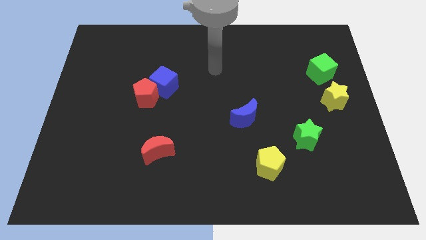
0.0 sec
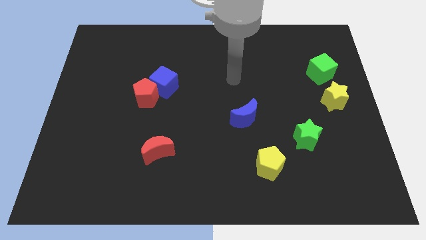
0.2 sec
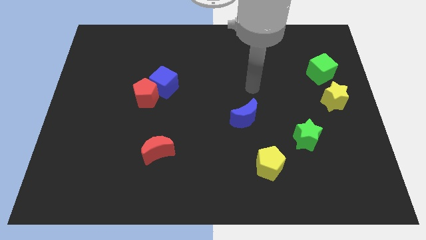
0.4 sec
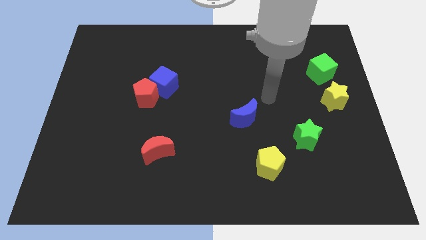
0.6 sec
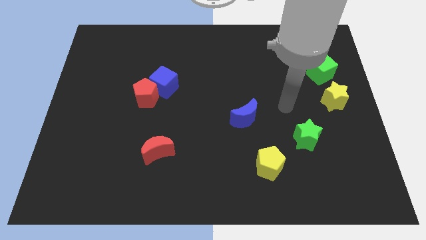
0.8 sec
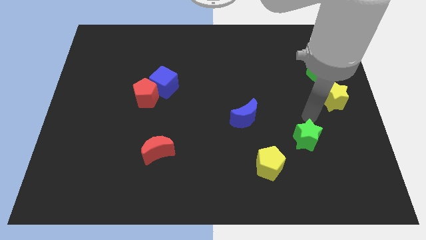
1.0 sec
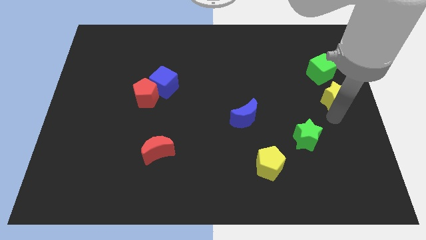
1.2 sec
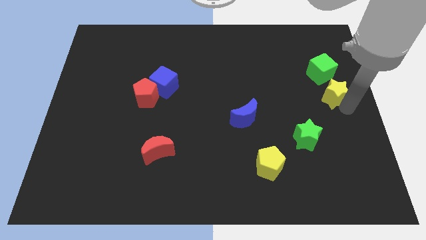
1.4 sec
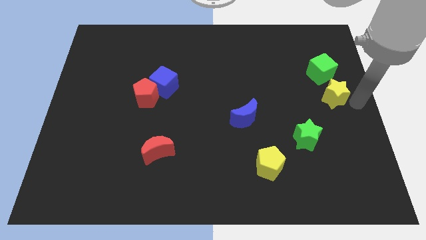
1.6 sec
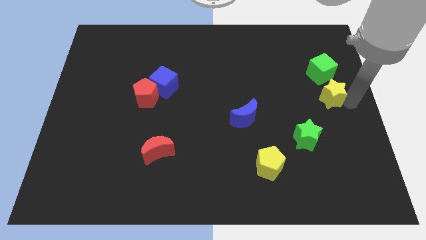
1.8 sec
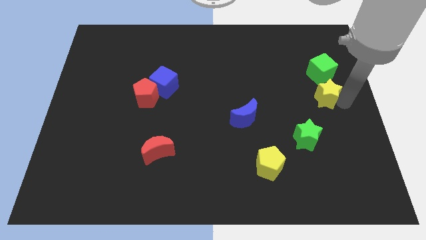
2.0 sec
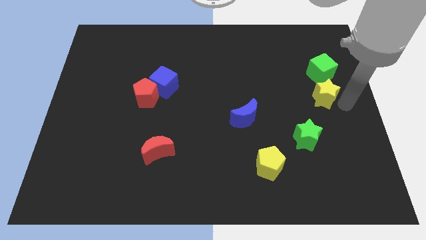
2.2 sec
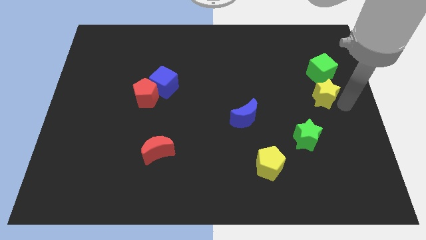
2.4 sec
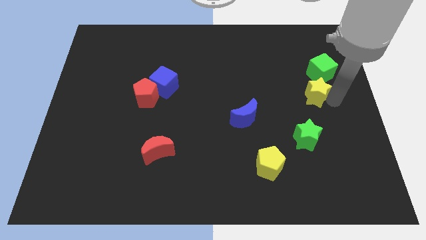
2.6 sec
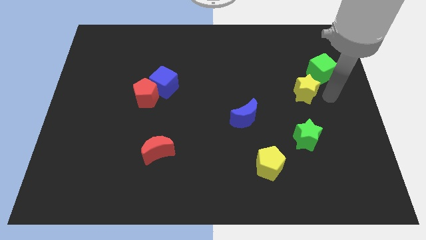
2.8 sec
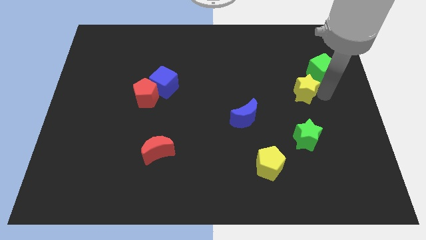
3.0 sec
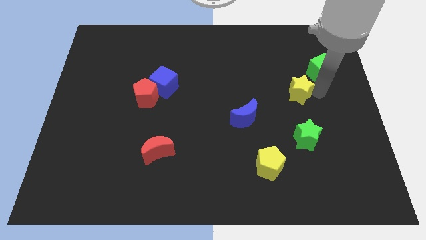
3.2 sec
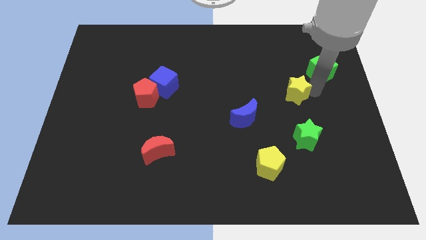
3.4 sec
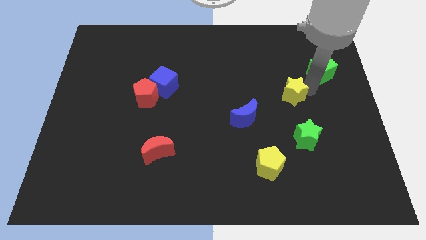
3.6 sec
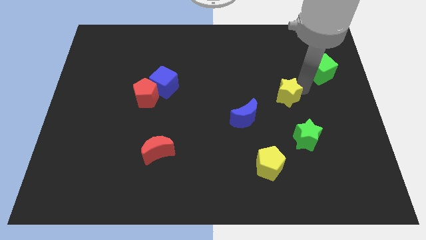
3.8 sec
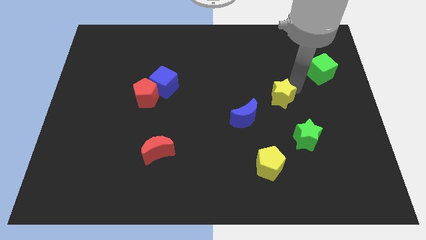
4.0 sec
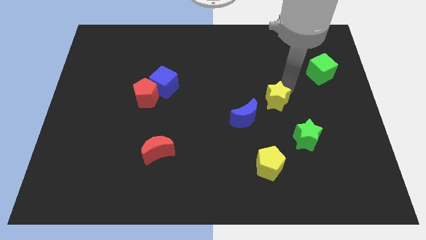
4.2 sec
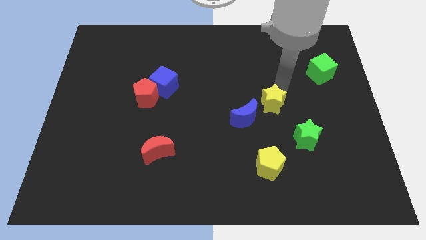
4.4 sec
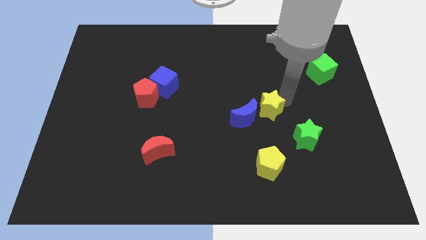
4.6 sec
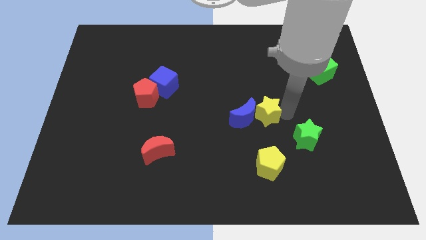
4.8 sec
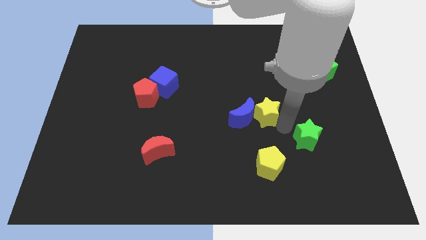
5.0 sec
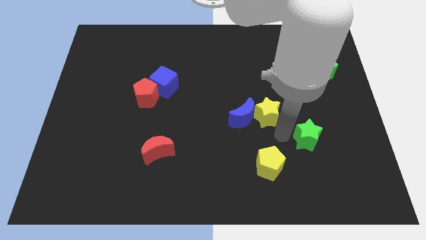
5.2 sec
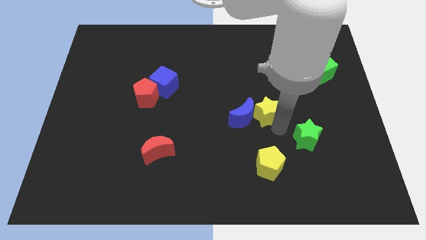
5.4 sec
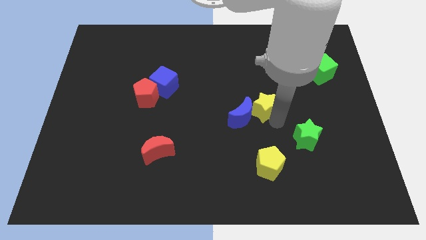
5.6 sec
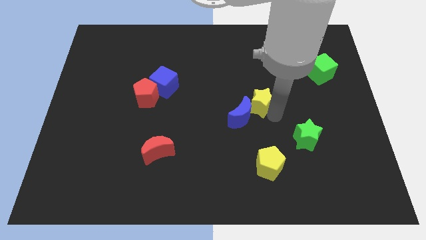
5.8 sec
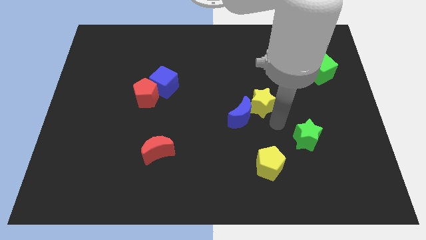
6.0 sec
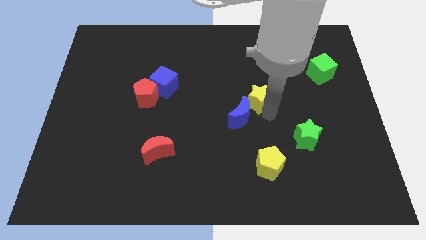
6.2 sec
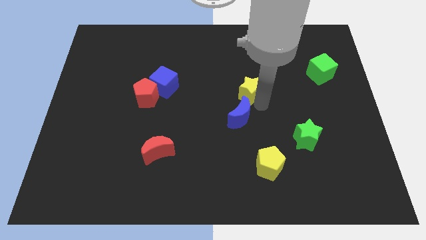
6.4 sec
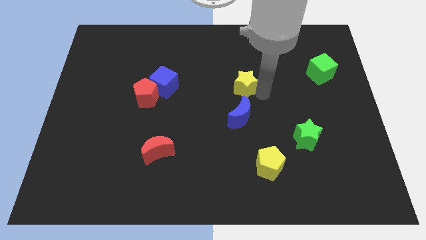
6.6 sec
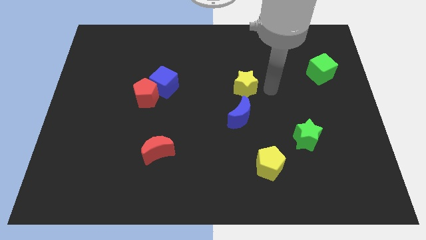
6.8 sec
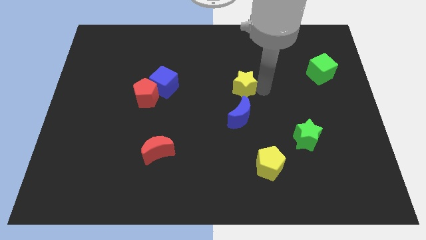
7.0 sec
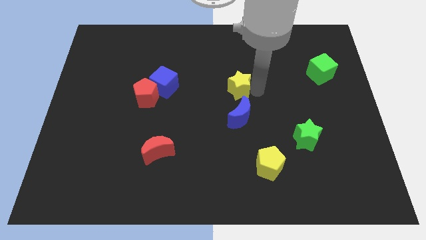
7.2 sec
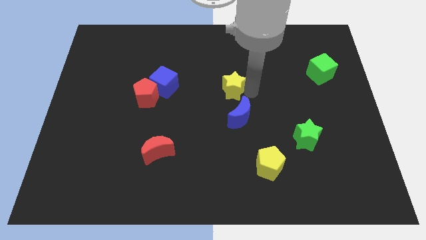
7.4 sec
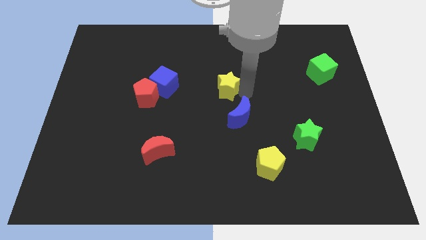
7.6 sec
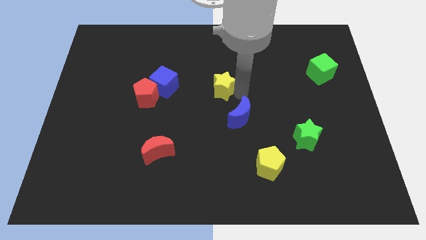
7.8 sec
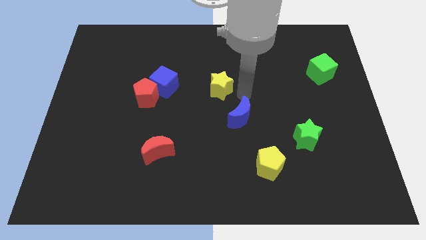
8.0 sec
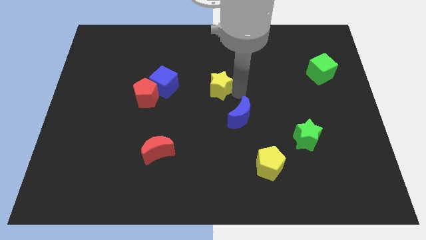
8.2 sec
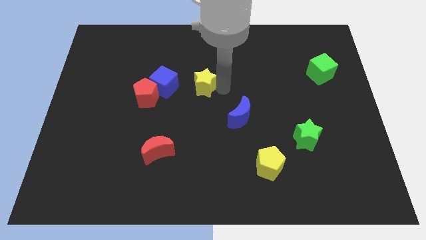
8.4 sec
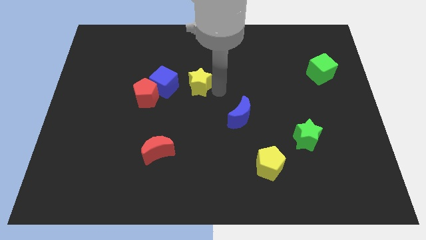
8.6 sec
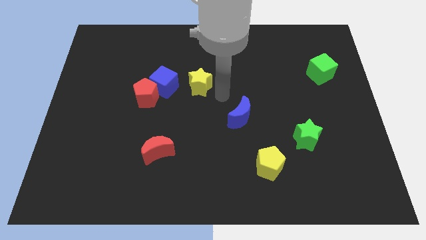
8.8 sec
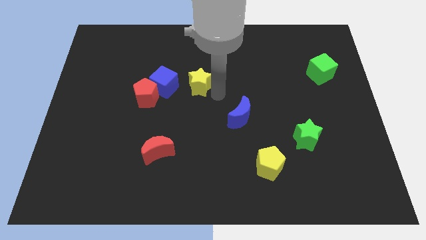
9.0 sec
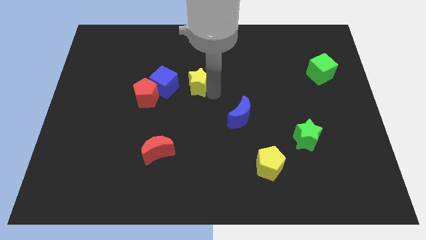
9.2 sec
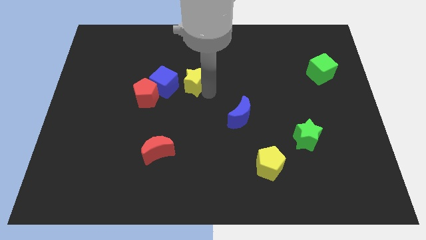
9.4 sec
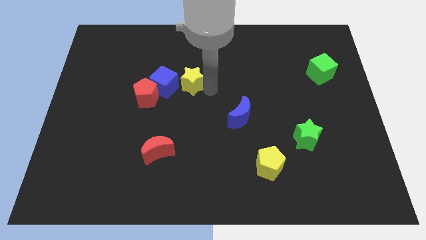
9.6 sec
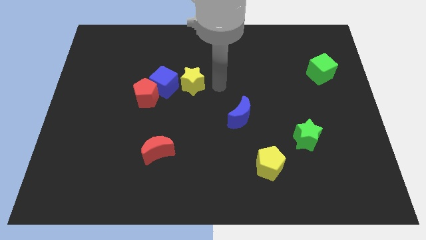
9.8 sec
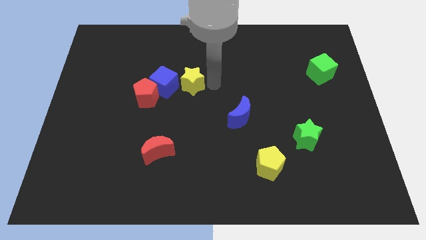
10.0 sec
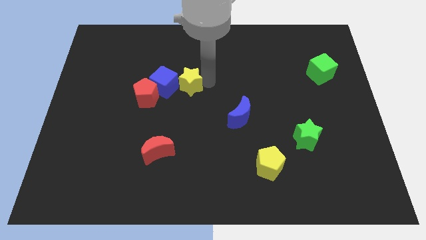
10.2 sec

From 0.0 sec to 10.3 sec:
slide the yellow star to the top right side of the red pentagon

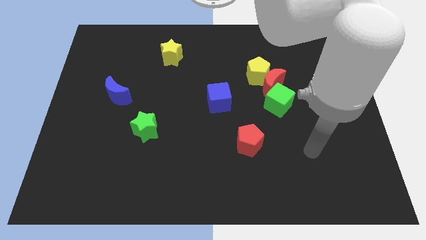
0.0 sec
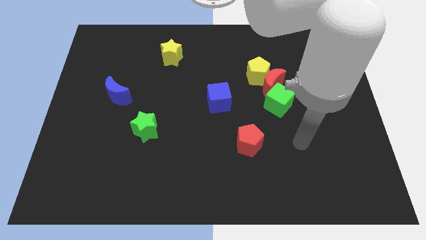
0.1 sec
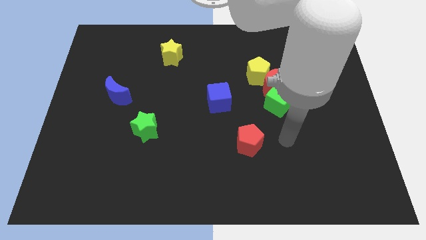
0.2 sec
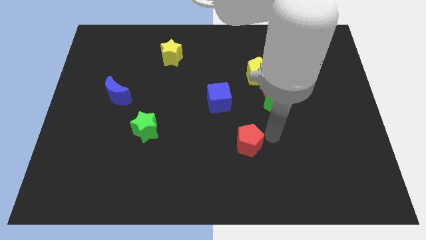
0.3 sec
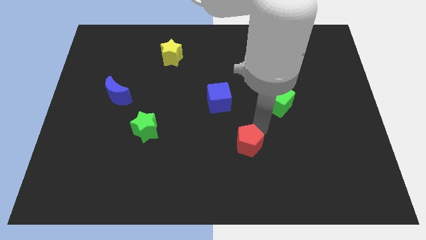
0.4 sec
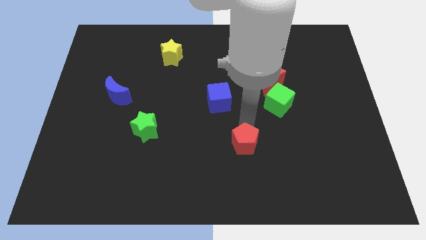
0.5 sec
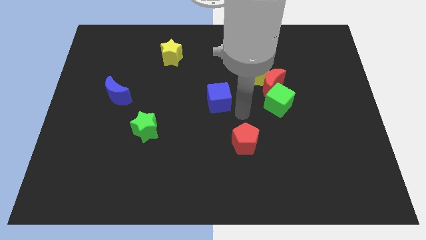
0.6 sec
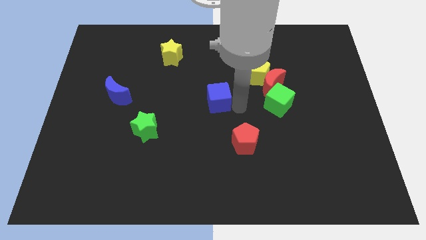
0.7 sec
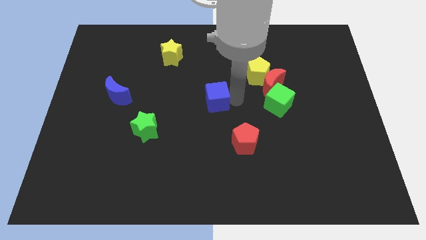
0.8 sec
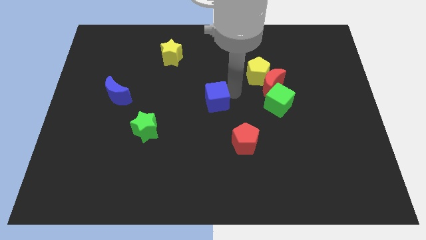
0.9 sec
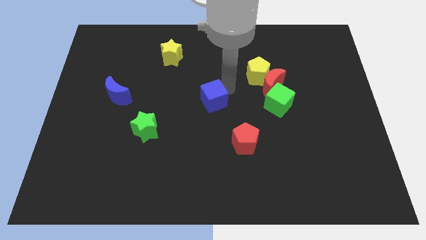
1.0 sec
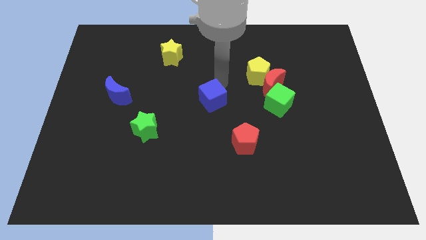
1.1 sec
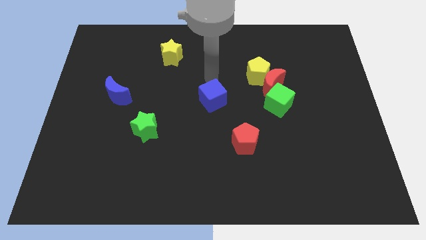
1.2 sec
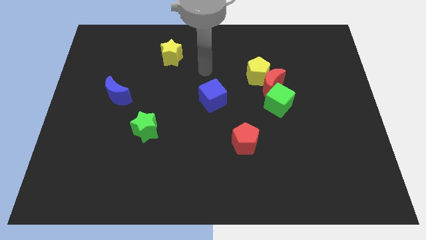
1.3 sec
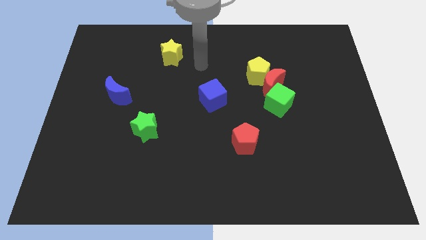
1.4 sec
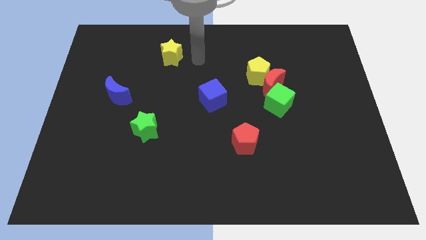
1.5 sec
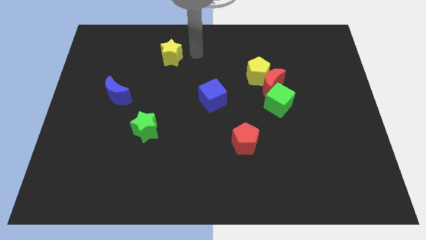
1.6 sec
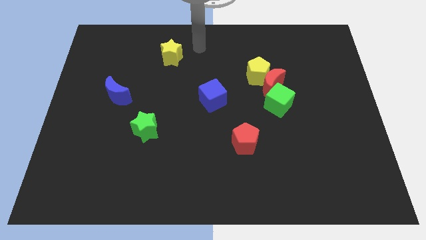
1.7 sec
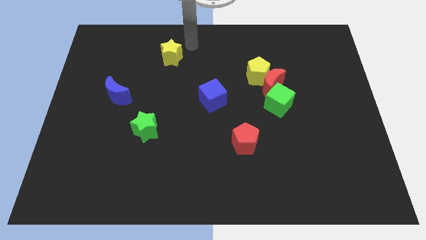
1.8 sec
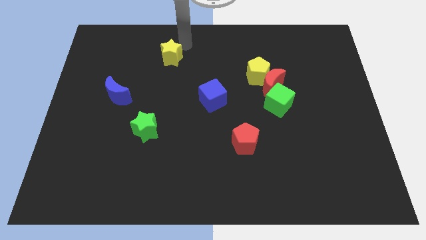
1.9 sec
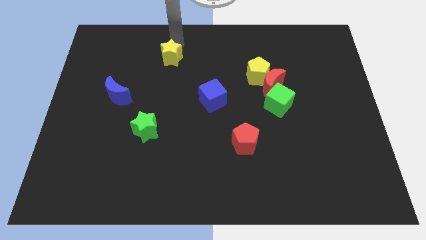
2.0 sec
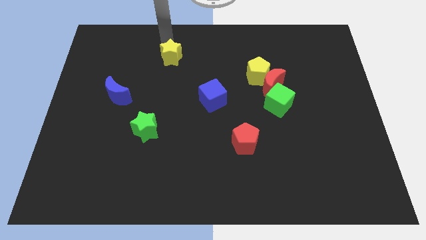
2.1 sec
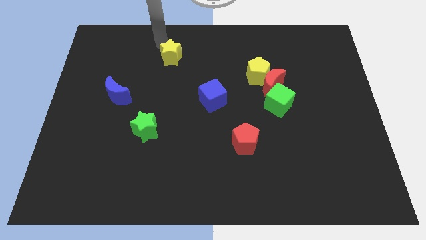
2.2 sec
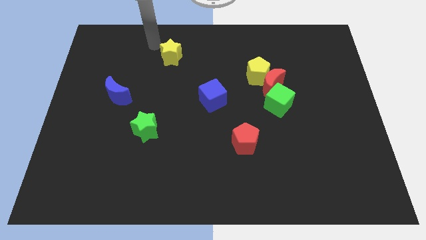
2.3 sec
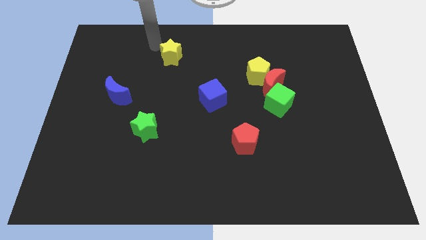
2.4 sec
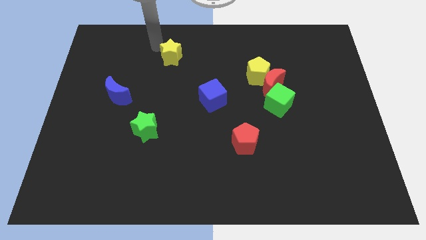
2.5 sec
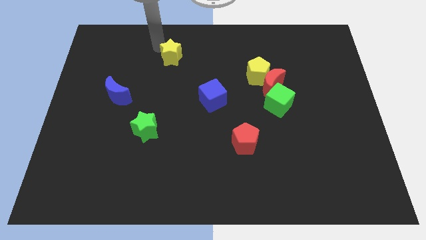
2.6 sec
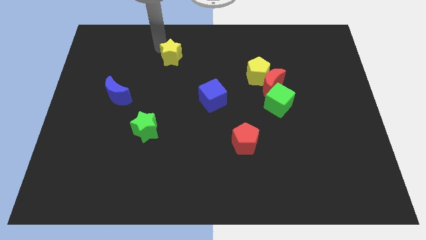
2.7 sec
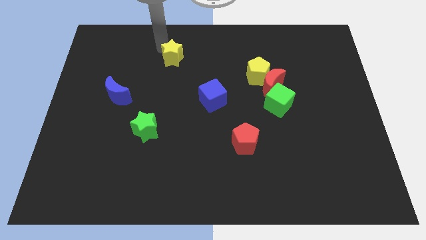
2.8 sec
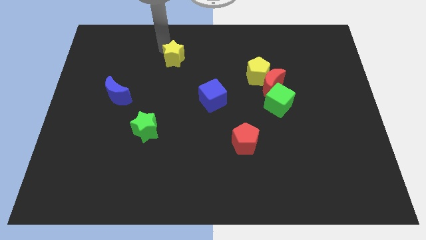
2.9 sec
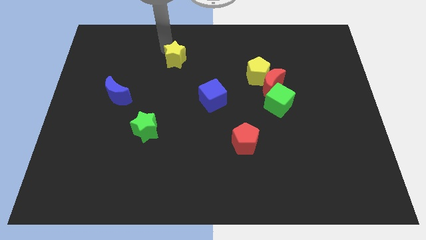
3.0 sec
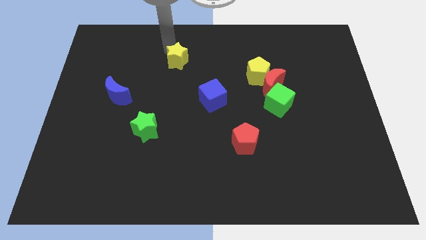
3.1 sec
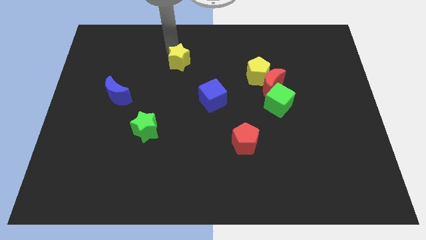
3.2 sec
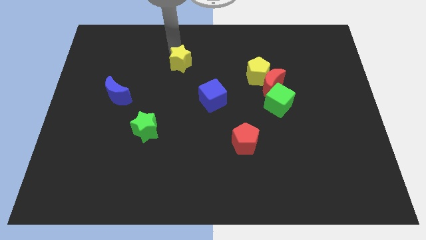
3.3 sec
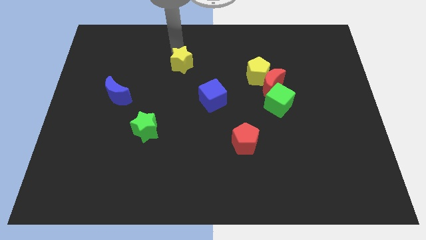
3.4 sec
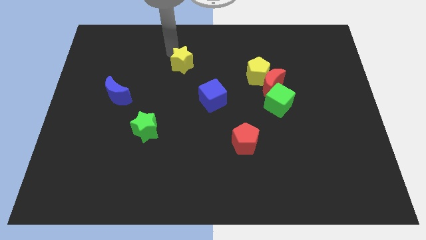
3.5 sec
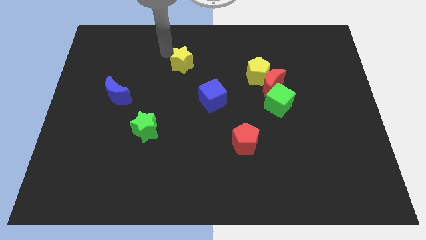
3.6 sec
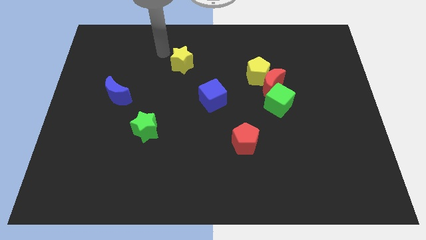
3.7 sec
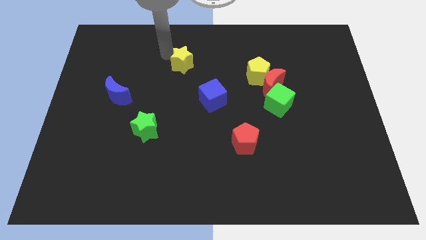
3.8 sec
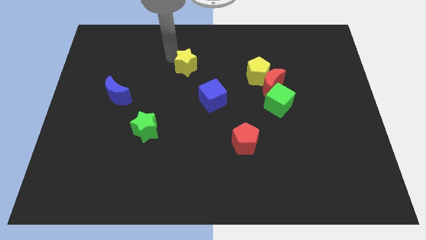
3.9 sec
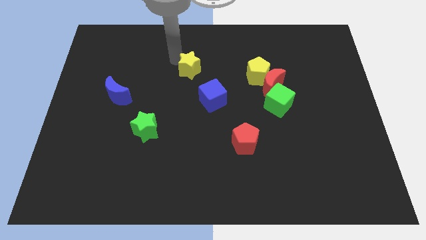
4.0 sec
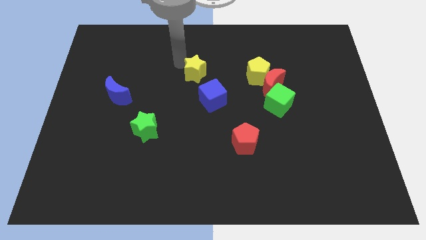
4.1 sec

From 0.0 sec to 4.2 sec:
move the yellow star to the left side of the yellow pentagon
